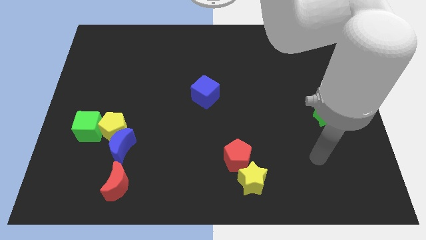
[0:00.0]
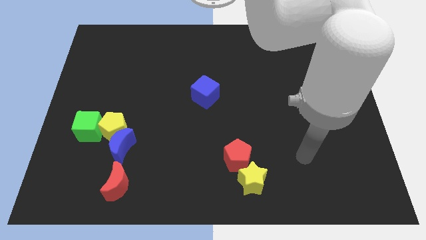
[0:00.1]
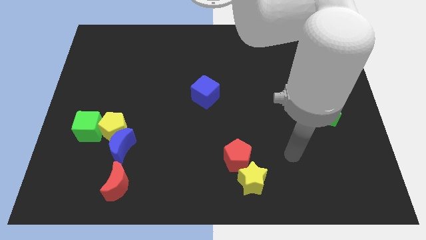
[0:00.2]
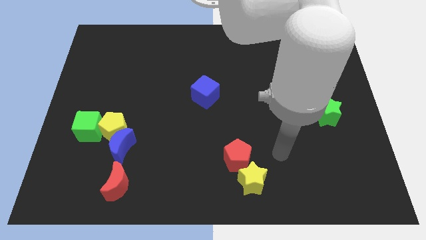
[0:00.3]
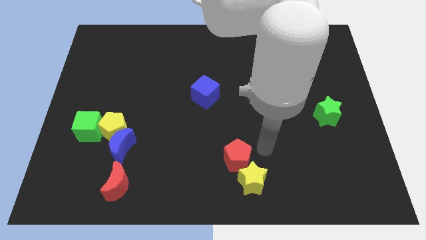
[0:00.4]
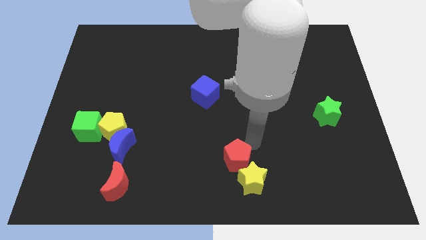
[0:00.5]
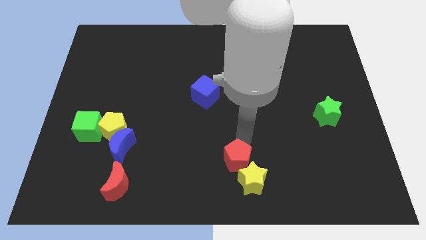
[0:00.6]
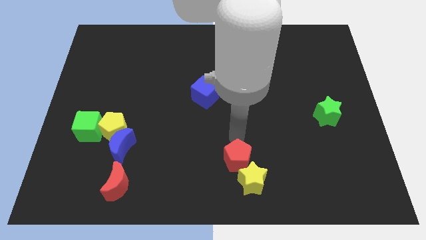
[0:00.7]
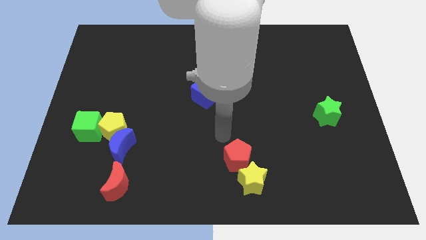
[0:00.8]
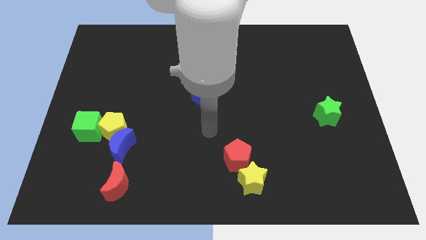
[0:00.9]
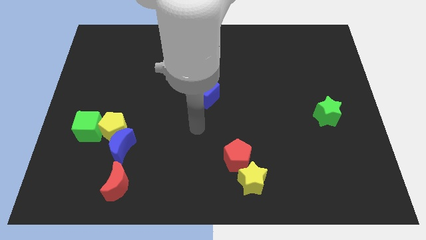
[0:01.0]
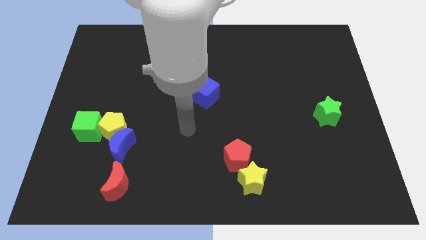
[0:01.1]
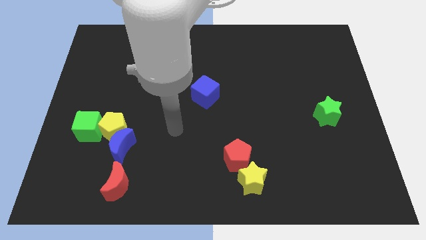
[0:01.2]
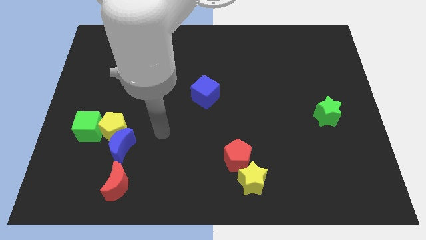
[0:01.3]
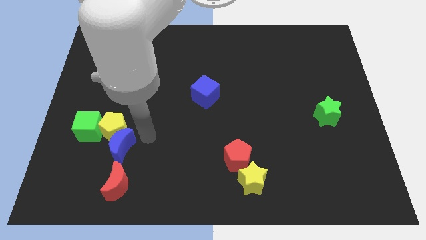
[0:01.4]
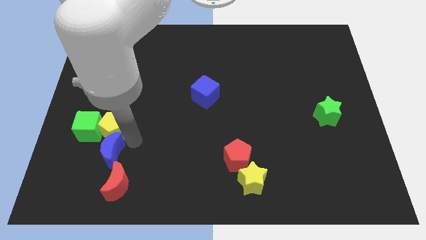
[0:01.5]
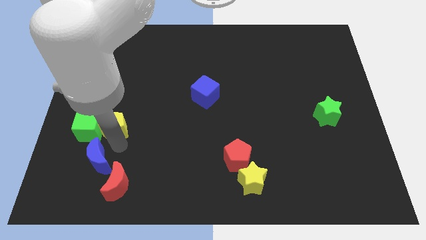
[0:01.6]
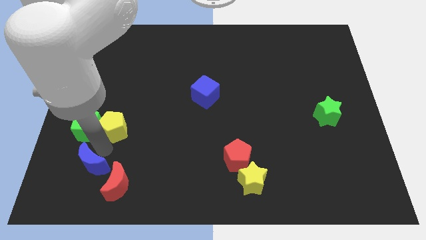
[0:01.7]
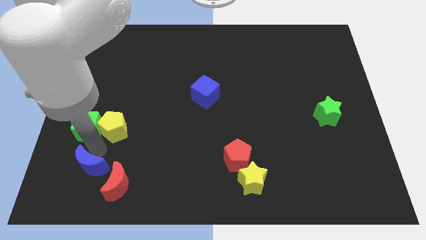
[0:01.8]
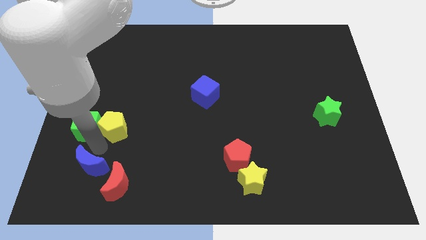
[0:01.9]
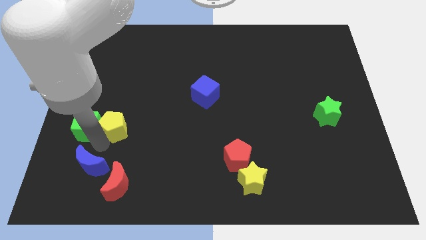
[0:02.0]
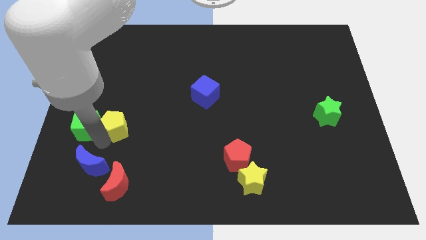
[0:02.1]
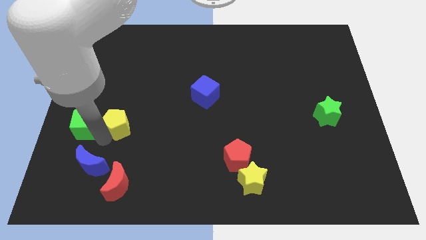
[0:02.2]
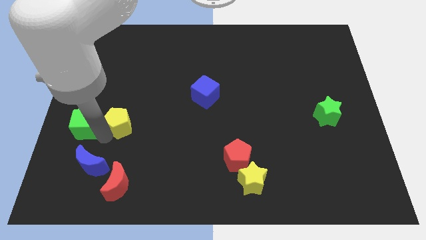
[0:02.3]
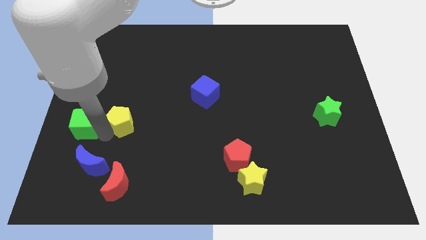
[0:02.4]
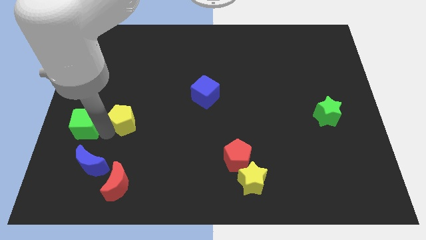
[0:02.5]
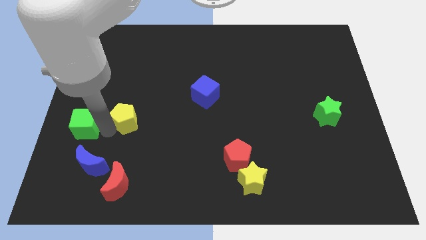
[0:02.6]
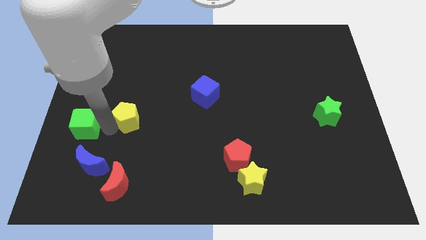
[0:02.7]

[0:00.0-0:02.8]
move the yellow pentagon away from the blue moon and green cube

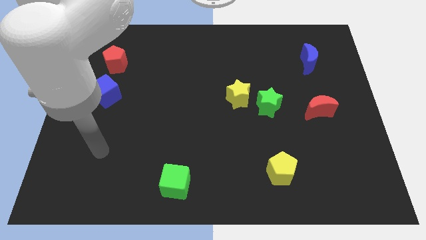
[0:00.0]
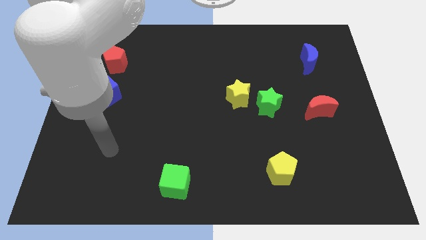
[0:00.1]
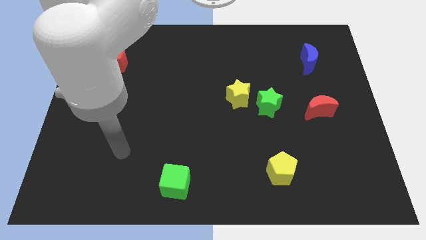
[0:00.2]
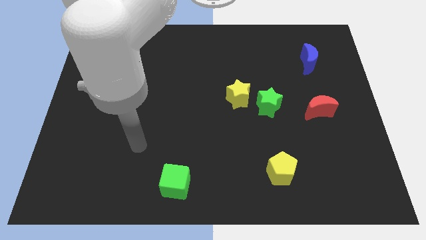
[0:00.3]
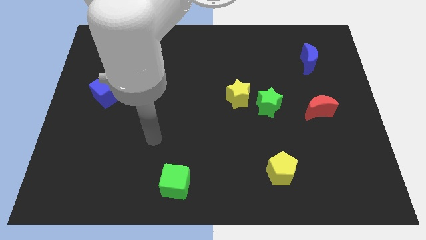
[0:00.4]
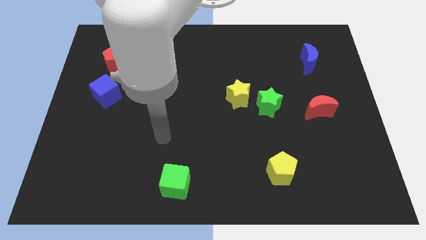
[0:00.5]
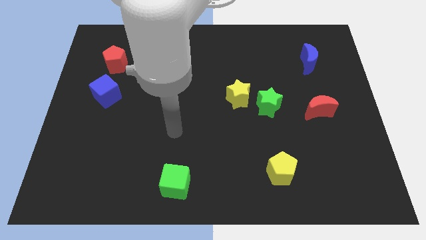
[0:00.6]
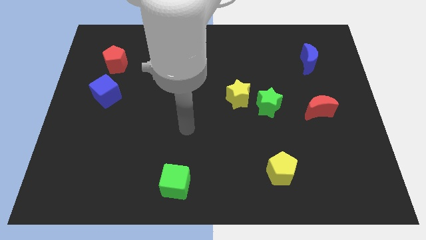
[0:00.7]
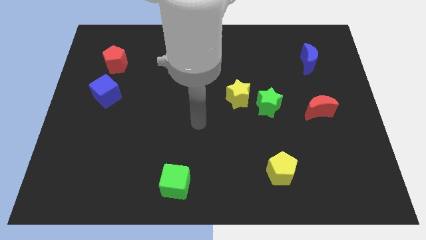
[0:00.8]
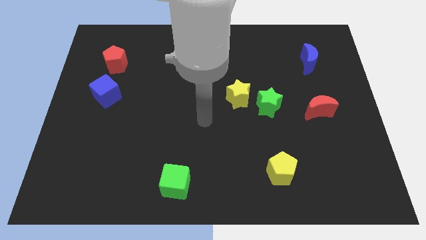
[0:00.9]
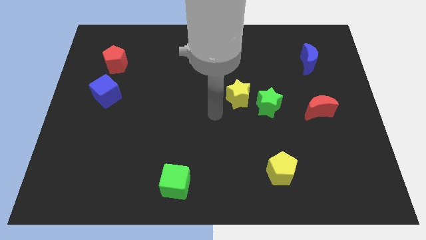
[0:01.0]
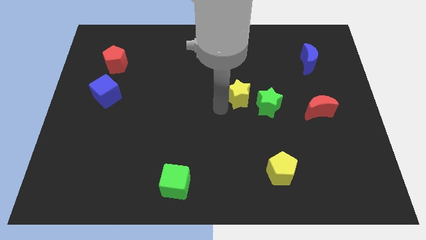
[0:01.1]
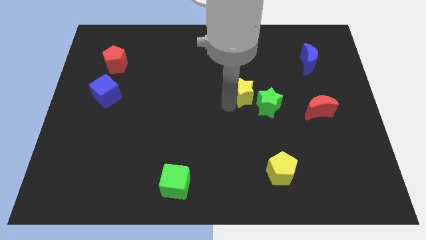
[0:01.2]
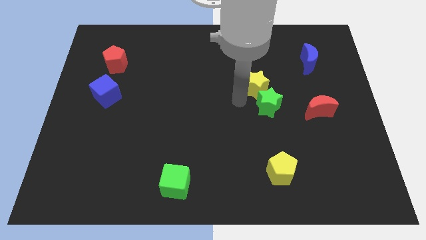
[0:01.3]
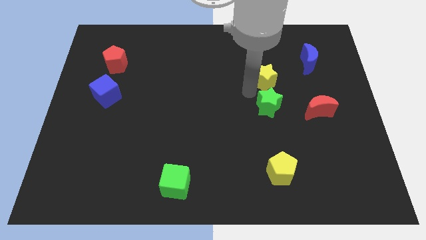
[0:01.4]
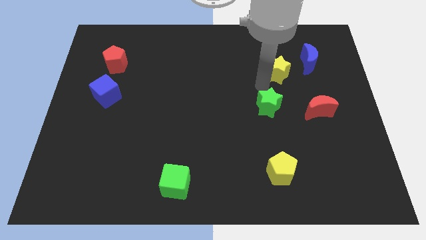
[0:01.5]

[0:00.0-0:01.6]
move the green star away from the yellow star

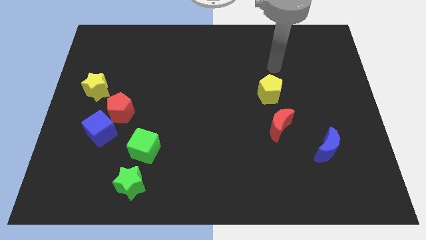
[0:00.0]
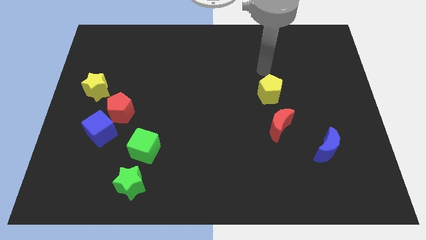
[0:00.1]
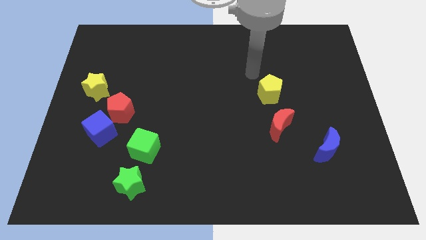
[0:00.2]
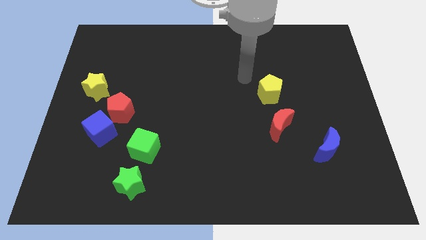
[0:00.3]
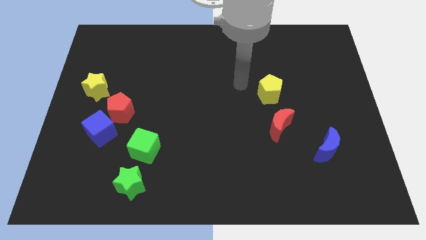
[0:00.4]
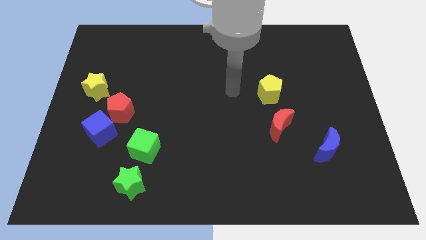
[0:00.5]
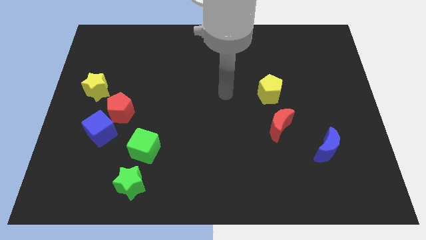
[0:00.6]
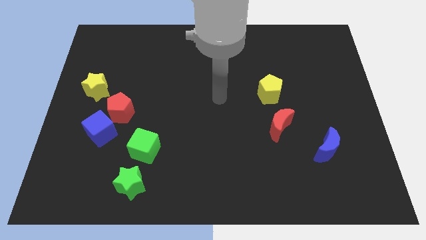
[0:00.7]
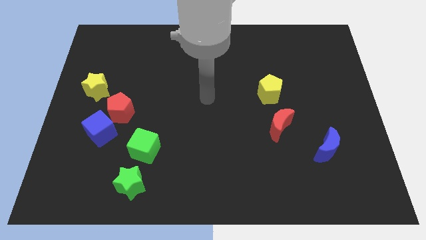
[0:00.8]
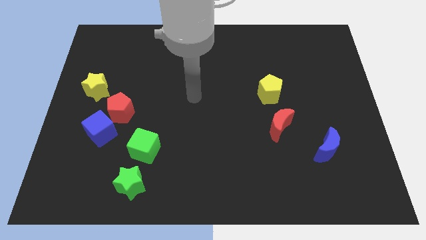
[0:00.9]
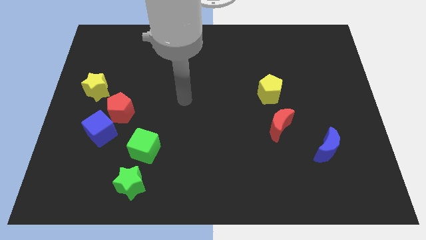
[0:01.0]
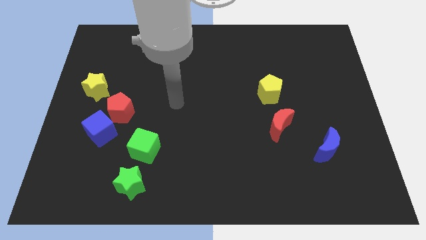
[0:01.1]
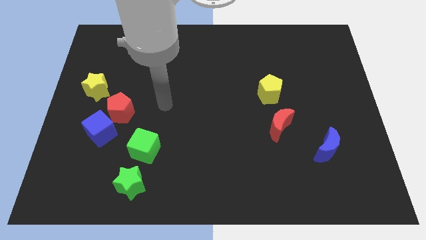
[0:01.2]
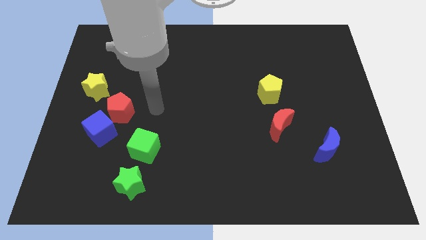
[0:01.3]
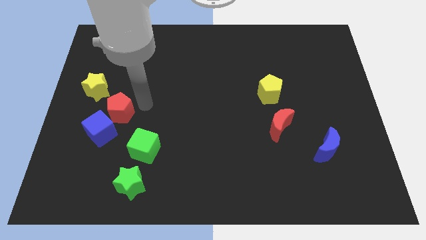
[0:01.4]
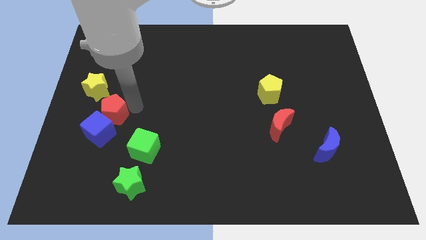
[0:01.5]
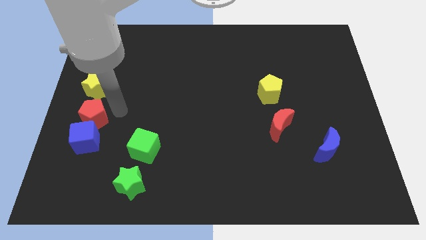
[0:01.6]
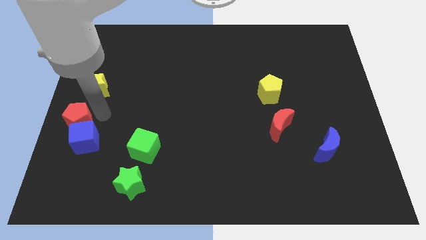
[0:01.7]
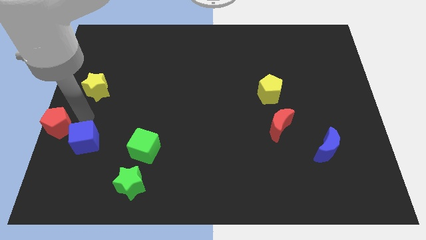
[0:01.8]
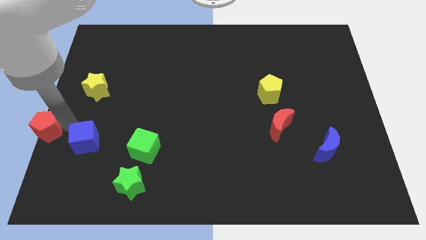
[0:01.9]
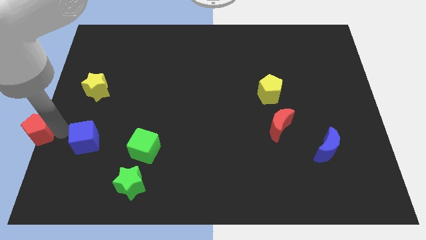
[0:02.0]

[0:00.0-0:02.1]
move the blue cube away from the red pentagon

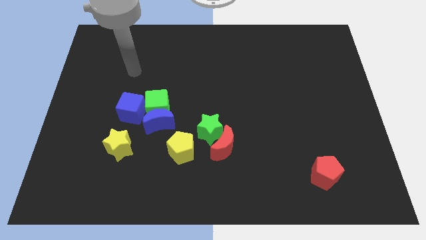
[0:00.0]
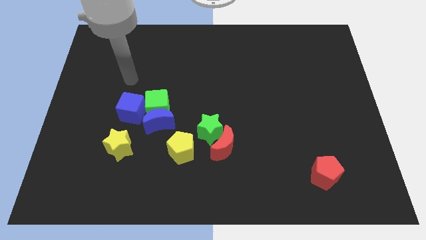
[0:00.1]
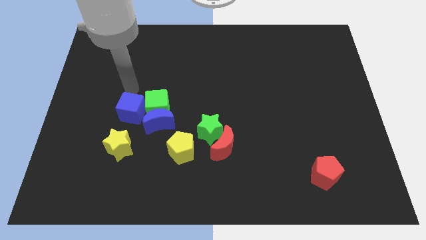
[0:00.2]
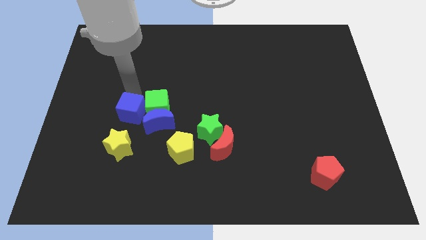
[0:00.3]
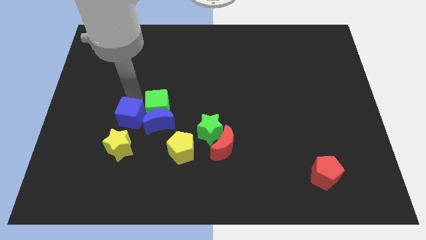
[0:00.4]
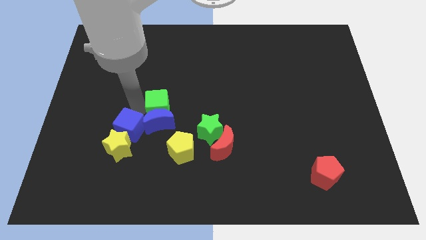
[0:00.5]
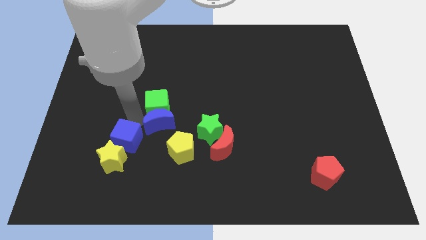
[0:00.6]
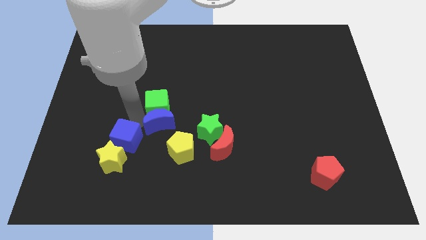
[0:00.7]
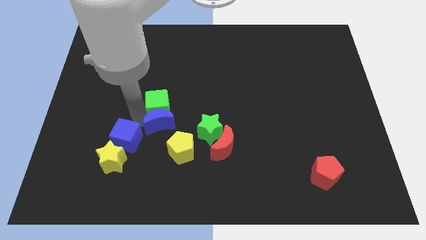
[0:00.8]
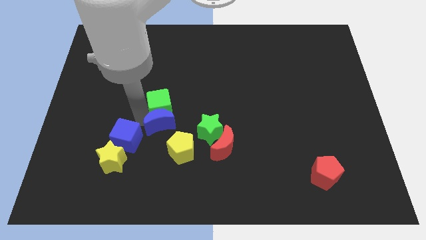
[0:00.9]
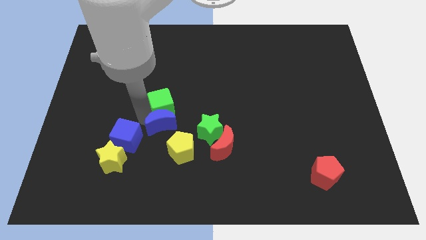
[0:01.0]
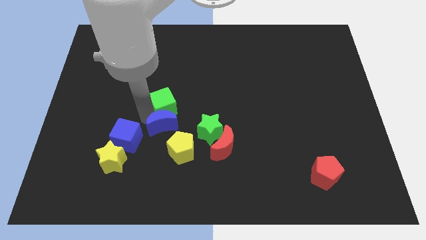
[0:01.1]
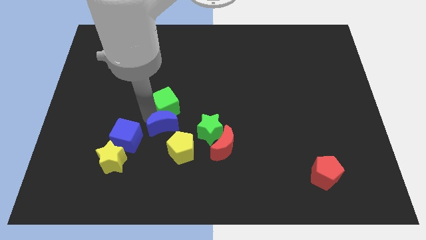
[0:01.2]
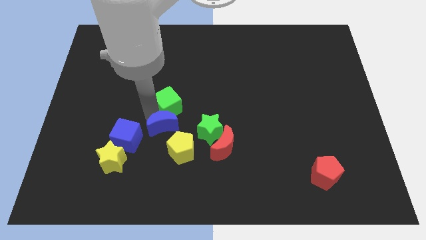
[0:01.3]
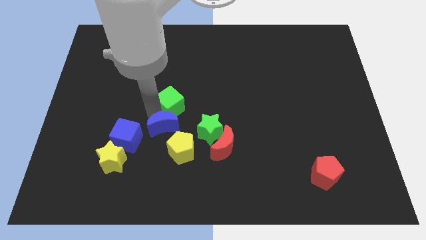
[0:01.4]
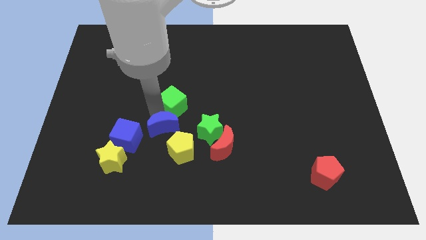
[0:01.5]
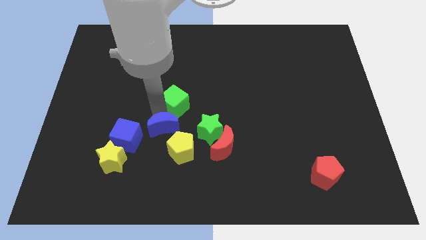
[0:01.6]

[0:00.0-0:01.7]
move the green cube away from the blue moon and blue cube
